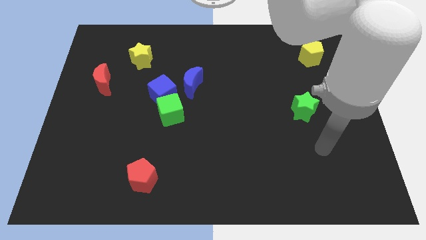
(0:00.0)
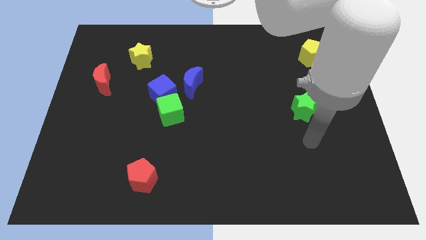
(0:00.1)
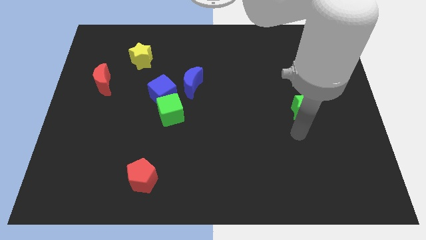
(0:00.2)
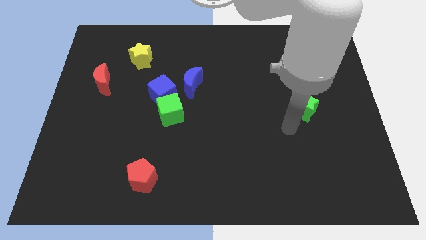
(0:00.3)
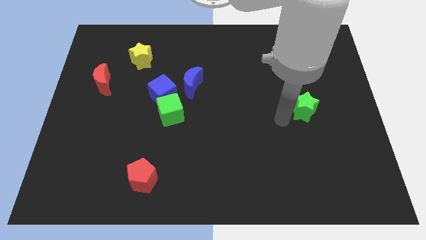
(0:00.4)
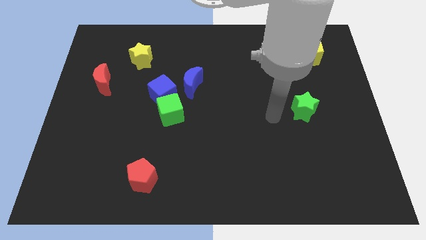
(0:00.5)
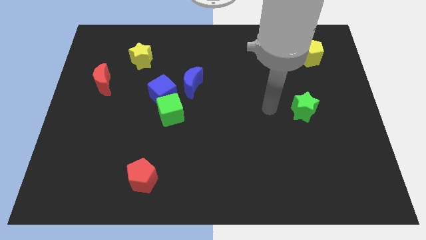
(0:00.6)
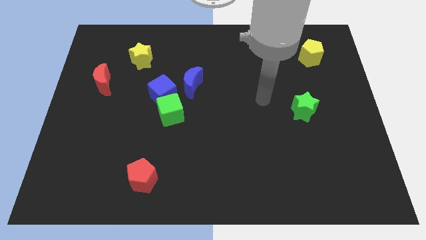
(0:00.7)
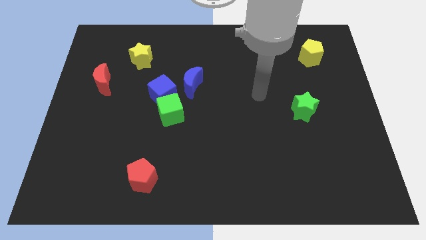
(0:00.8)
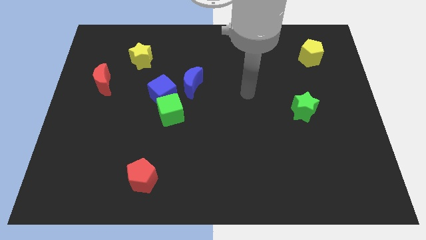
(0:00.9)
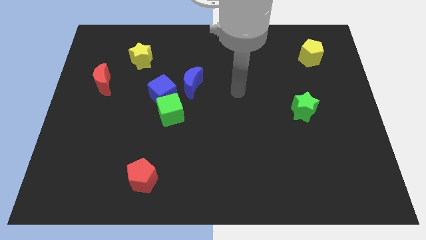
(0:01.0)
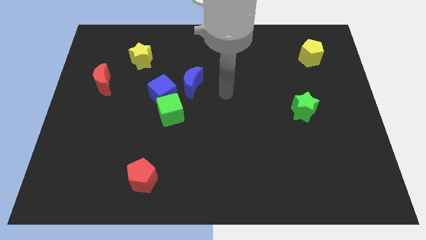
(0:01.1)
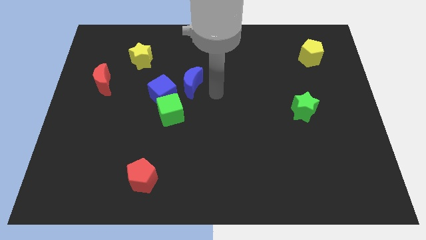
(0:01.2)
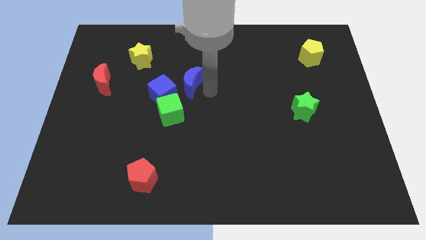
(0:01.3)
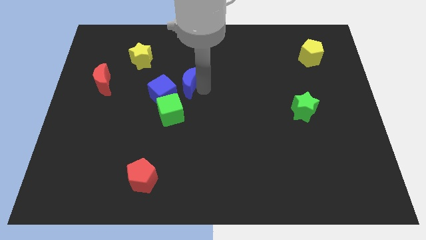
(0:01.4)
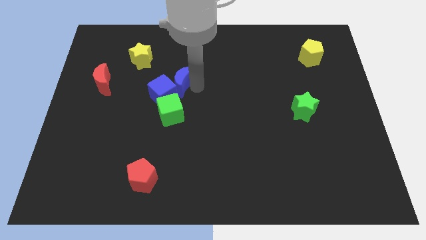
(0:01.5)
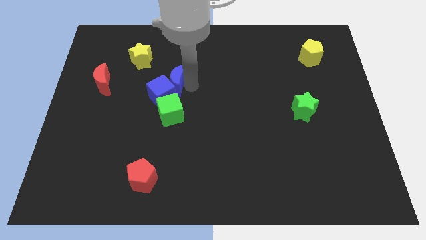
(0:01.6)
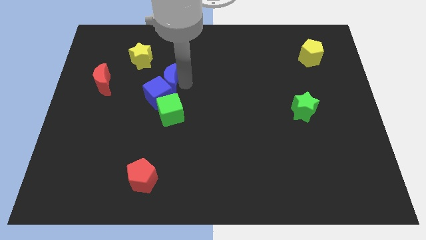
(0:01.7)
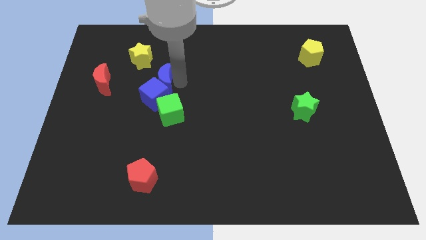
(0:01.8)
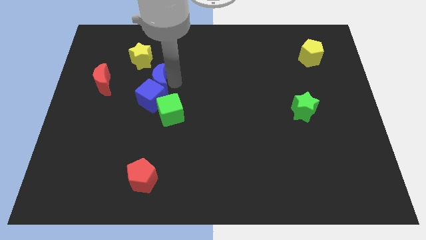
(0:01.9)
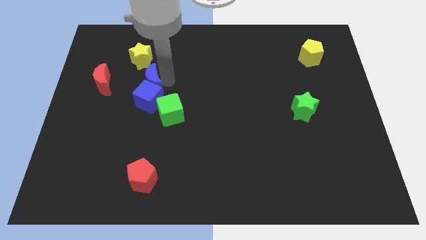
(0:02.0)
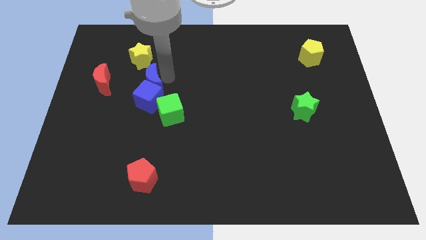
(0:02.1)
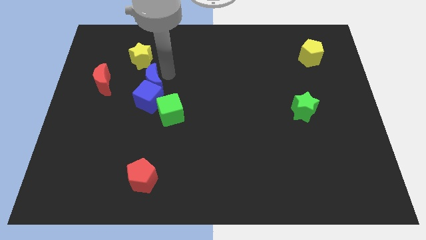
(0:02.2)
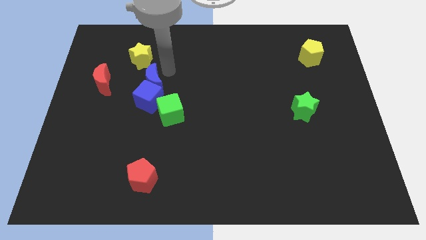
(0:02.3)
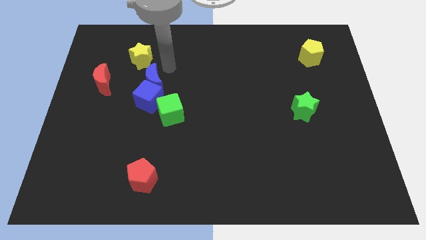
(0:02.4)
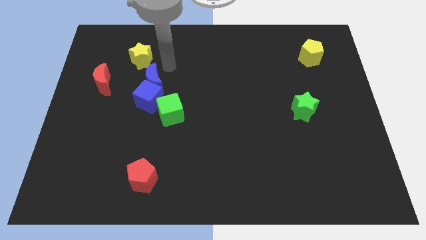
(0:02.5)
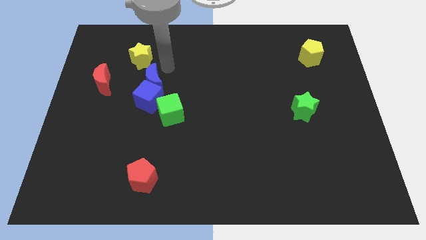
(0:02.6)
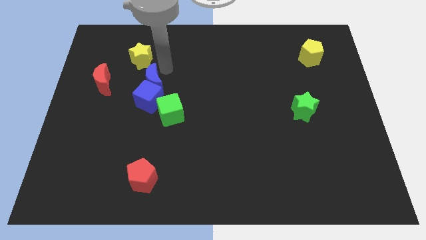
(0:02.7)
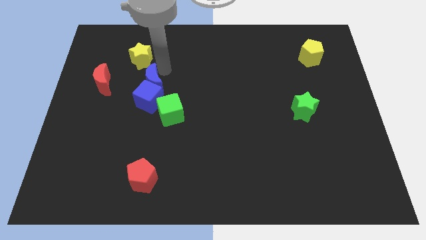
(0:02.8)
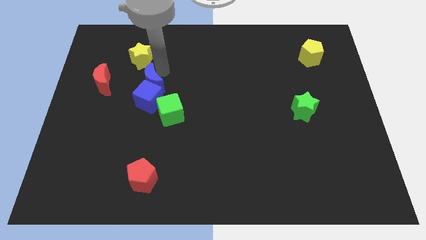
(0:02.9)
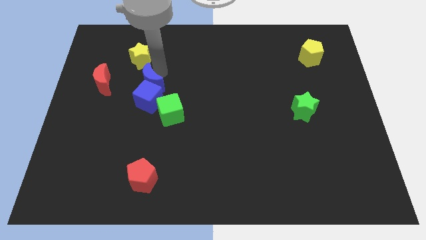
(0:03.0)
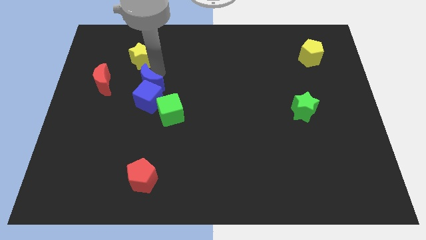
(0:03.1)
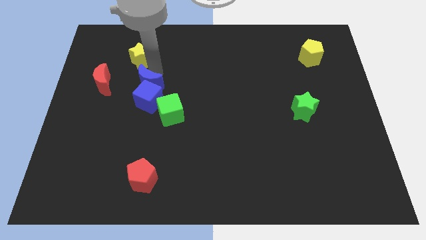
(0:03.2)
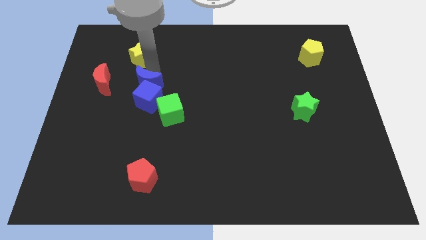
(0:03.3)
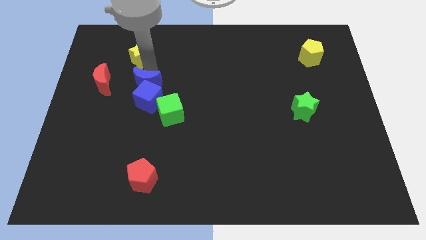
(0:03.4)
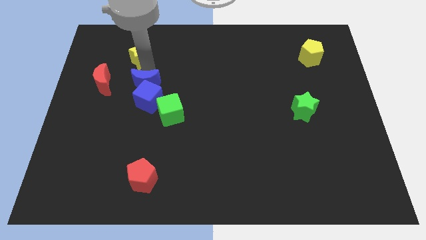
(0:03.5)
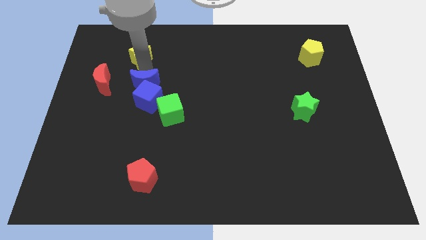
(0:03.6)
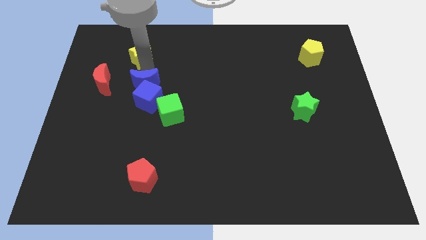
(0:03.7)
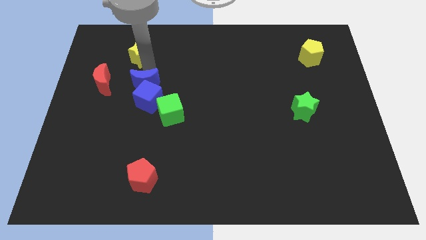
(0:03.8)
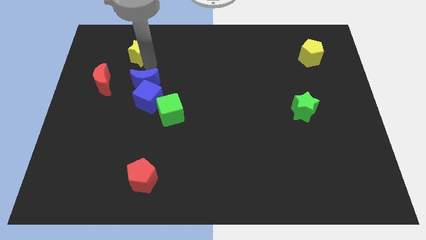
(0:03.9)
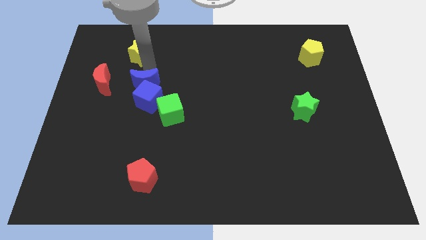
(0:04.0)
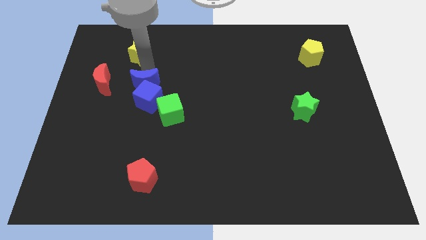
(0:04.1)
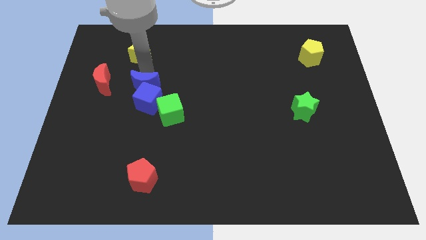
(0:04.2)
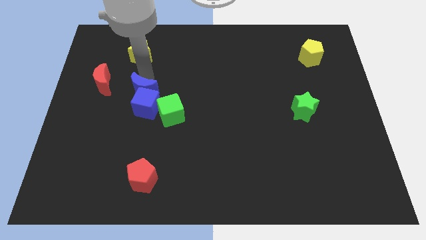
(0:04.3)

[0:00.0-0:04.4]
slightly push the blue moon down and left

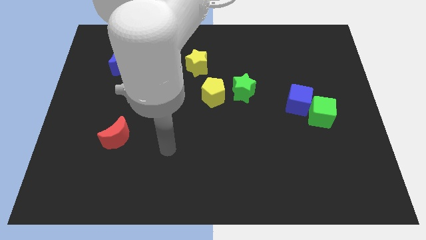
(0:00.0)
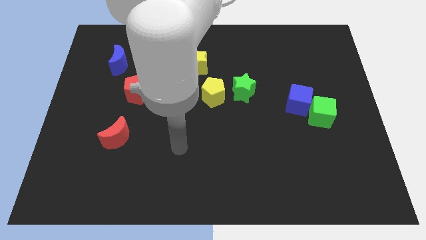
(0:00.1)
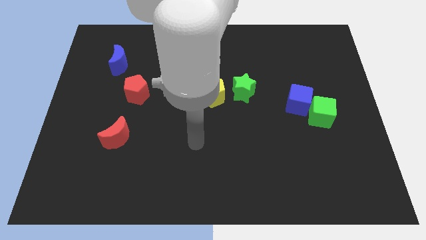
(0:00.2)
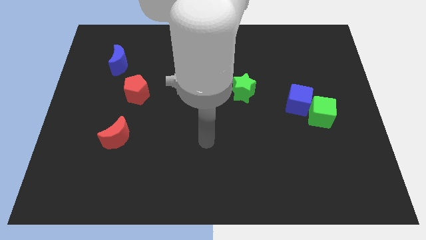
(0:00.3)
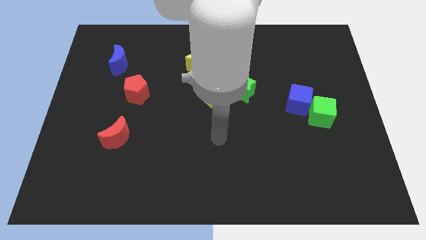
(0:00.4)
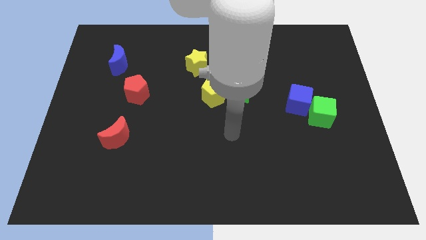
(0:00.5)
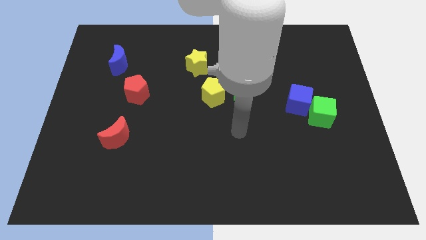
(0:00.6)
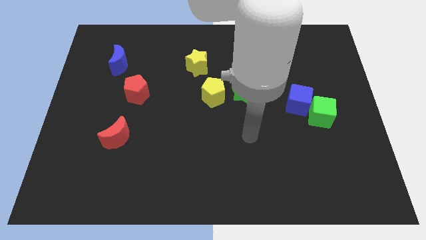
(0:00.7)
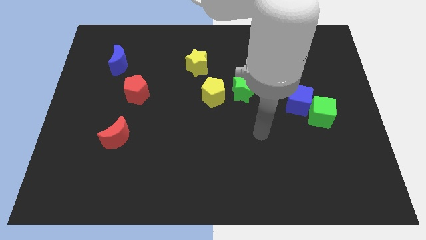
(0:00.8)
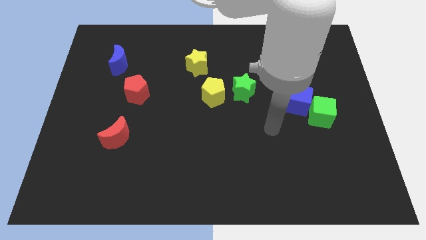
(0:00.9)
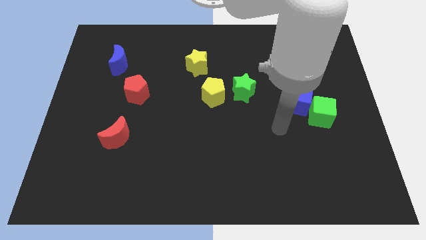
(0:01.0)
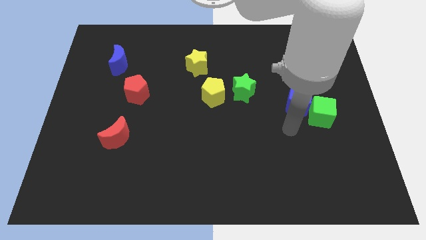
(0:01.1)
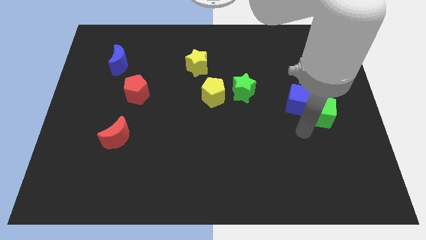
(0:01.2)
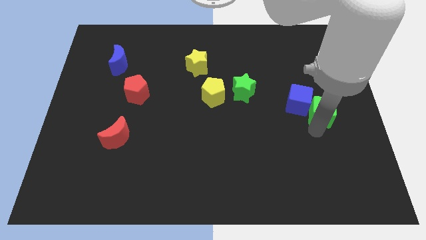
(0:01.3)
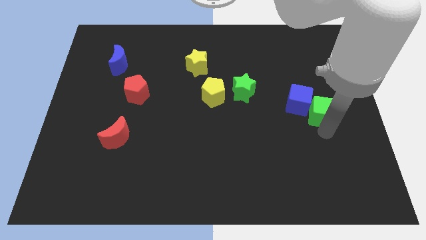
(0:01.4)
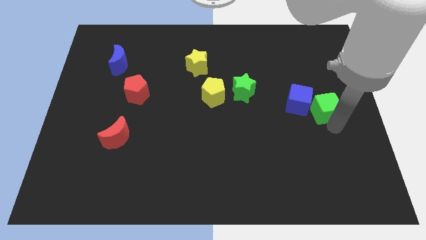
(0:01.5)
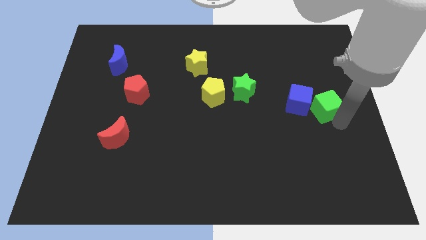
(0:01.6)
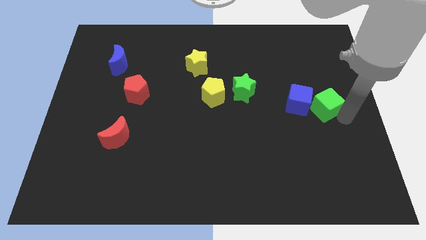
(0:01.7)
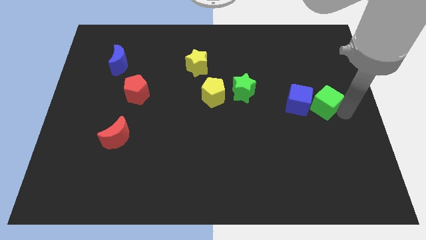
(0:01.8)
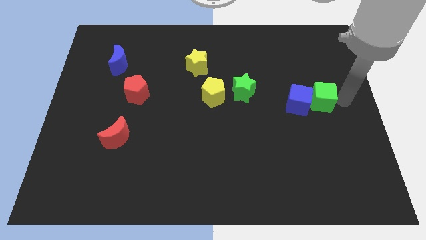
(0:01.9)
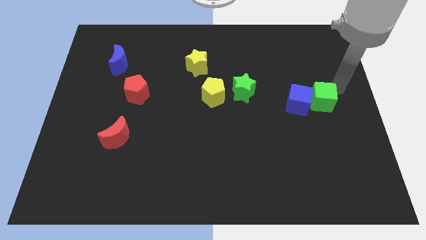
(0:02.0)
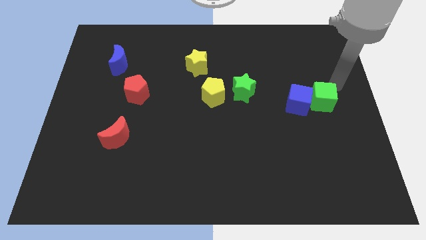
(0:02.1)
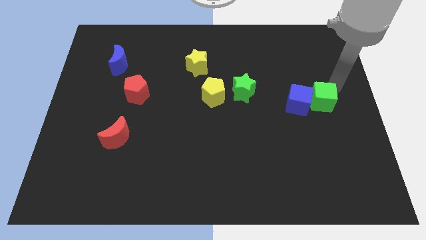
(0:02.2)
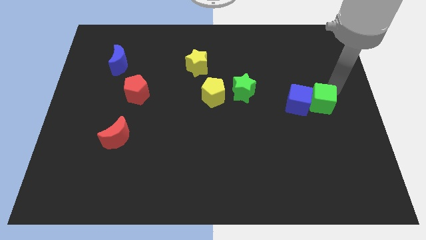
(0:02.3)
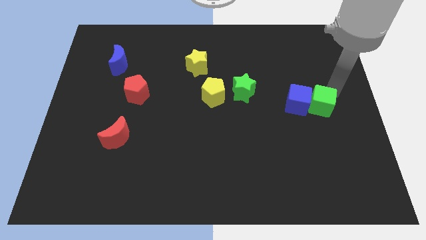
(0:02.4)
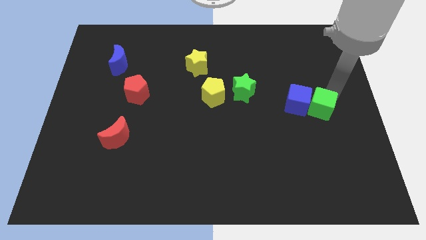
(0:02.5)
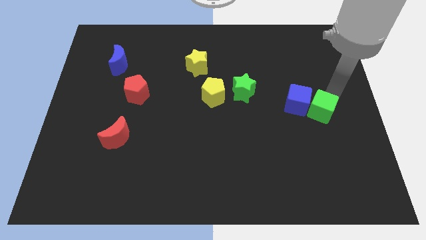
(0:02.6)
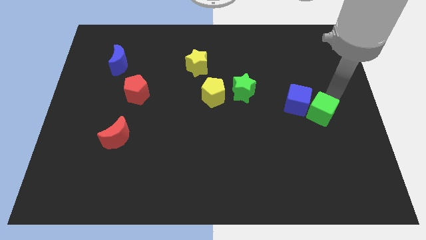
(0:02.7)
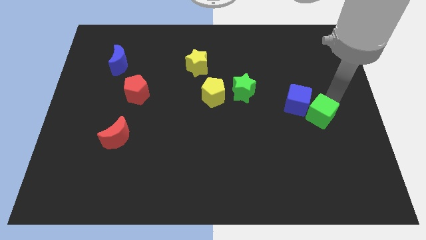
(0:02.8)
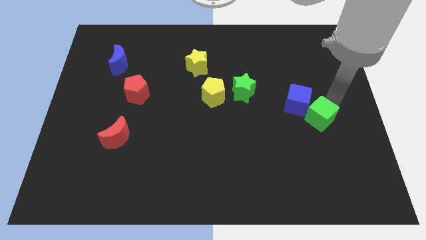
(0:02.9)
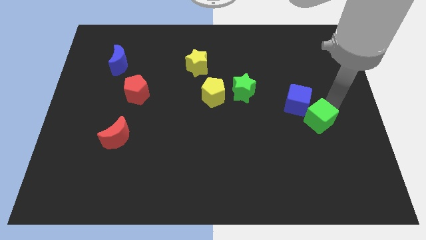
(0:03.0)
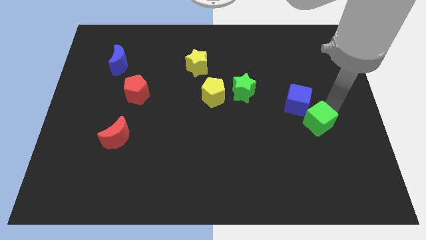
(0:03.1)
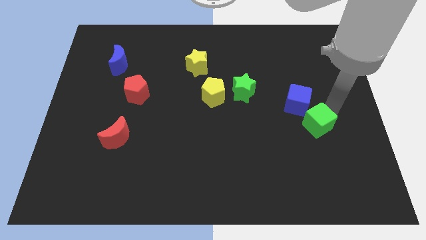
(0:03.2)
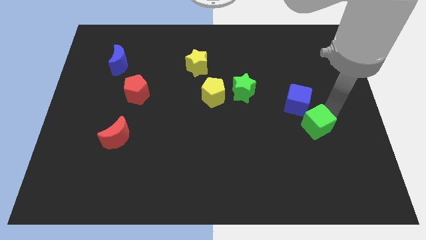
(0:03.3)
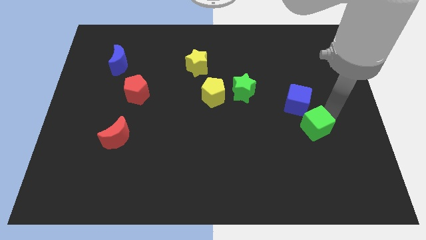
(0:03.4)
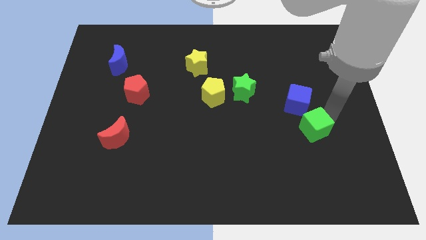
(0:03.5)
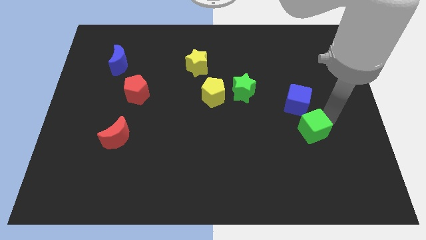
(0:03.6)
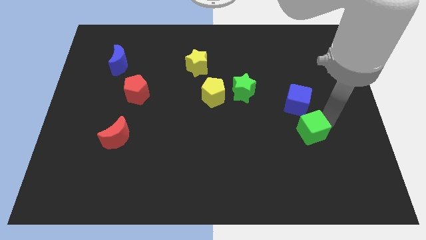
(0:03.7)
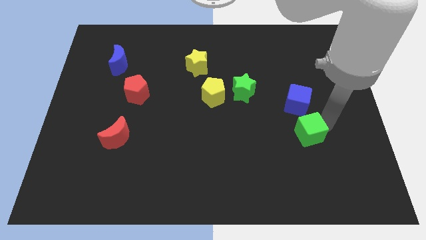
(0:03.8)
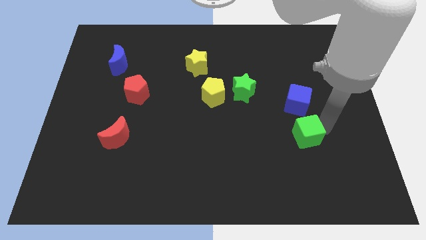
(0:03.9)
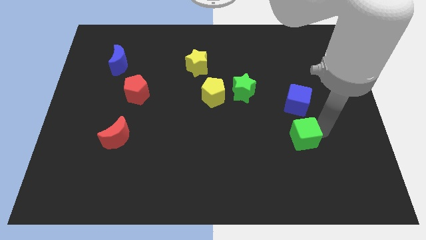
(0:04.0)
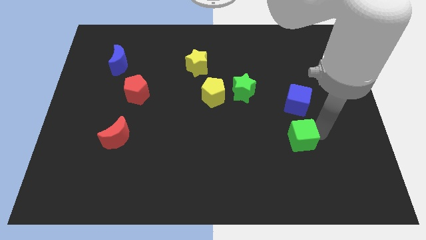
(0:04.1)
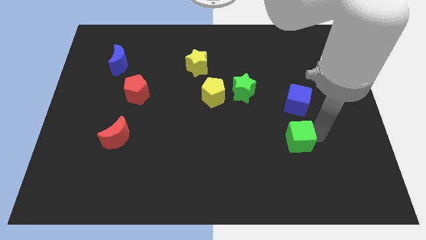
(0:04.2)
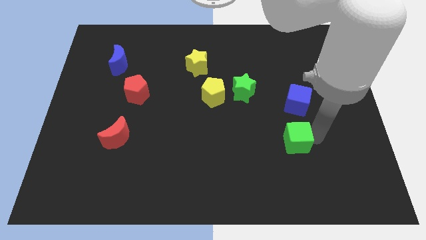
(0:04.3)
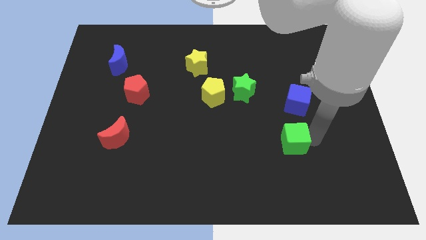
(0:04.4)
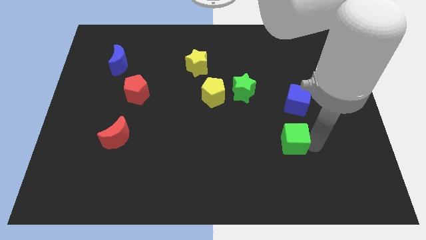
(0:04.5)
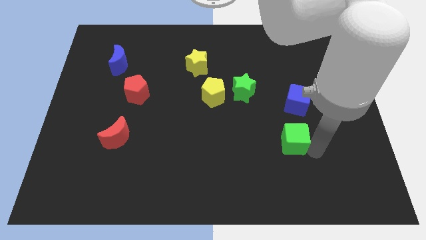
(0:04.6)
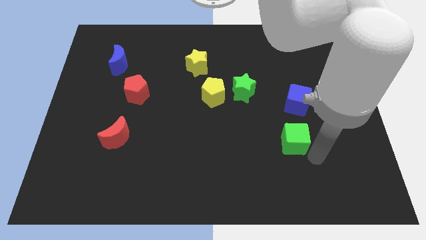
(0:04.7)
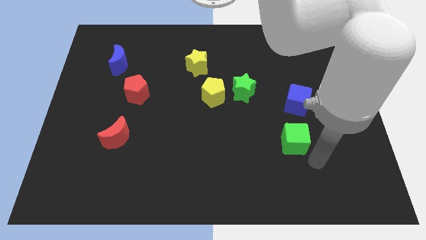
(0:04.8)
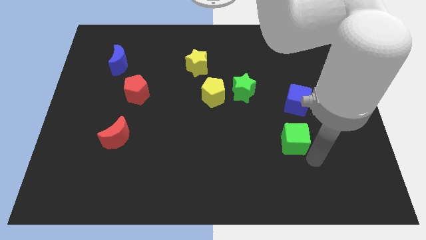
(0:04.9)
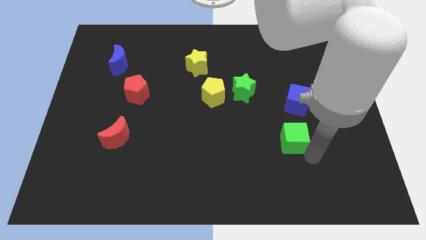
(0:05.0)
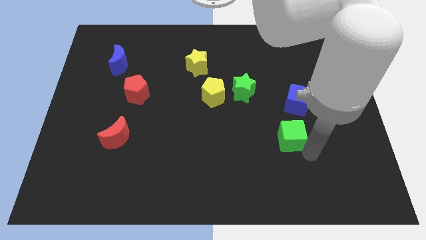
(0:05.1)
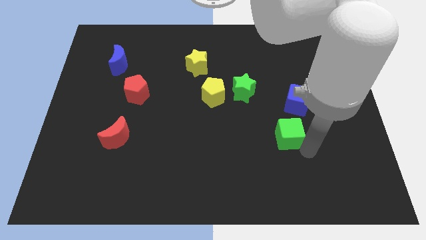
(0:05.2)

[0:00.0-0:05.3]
push the green cube a little bit to the left
